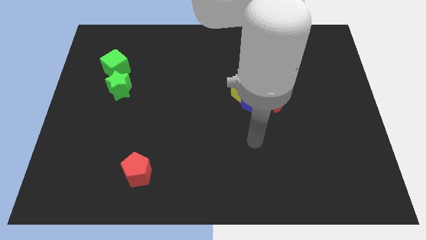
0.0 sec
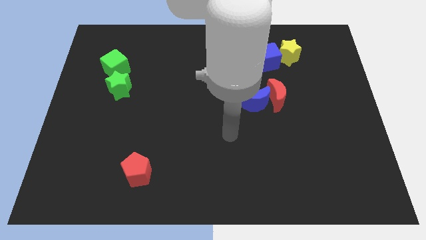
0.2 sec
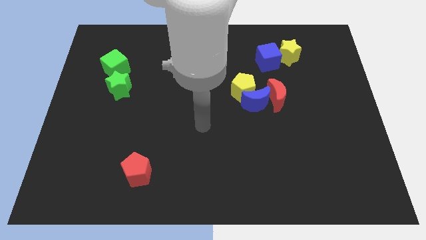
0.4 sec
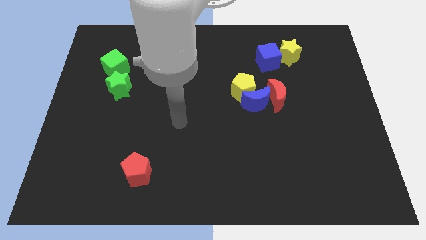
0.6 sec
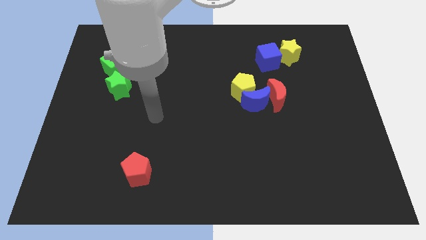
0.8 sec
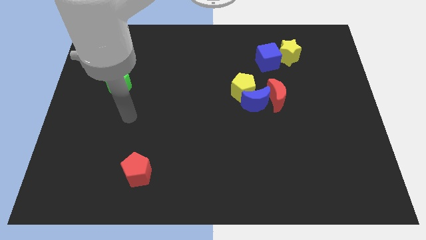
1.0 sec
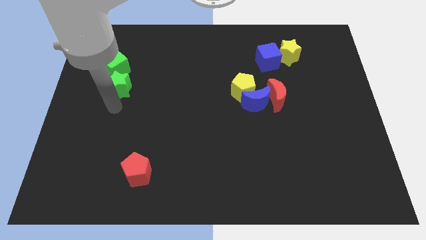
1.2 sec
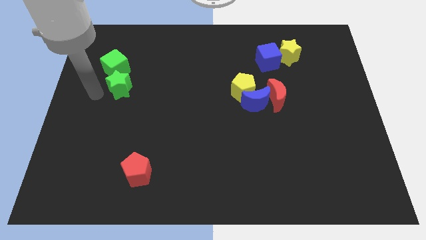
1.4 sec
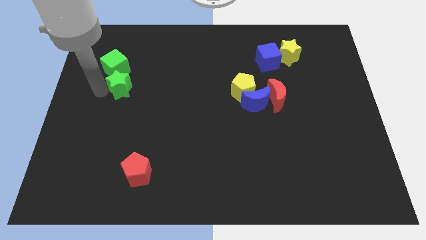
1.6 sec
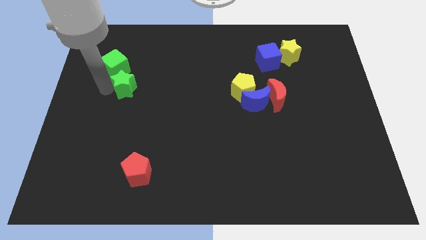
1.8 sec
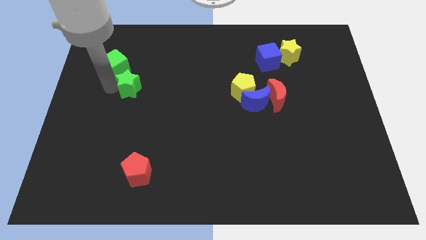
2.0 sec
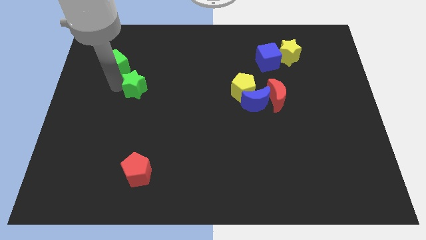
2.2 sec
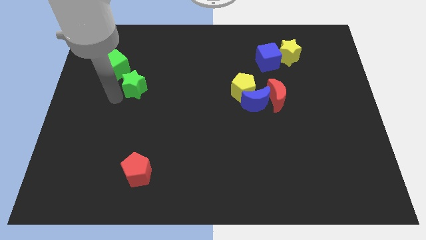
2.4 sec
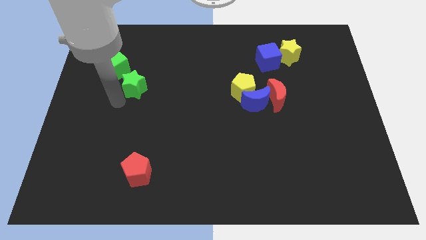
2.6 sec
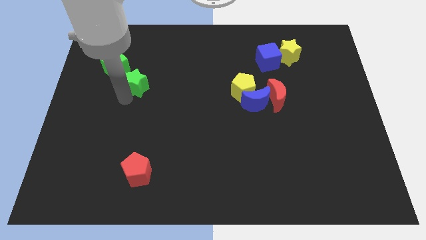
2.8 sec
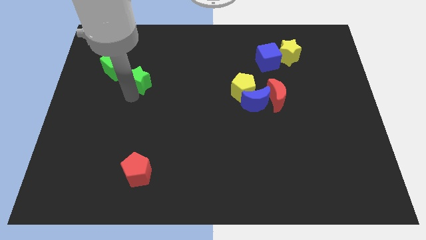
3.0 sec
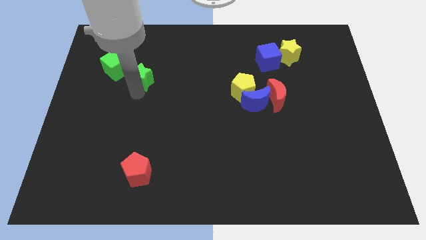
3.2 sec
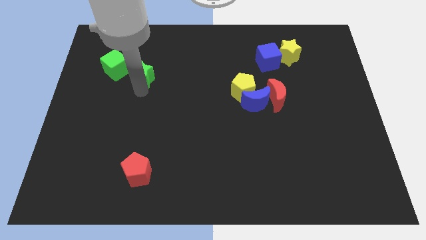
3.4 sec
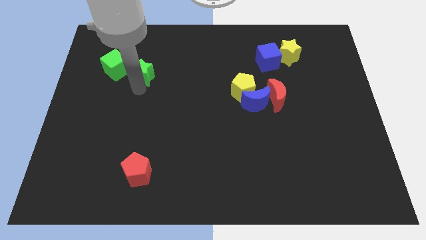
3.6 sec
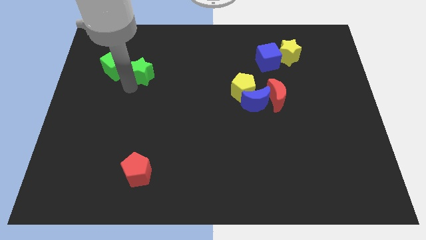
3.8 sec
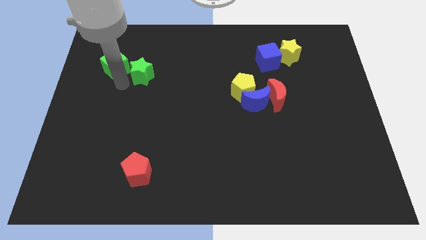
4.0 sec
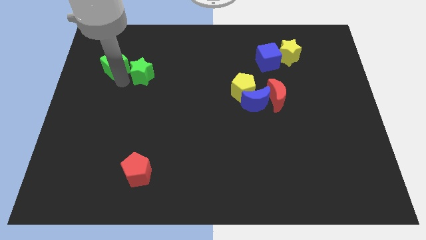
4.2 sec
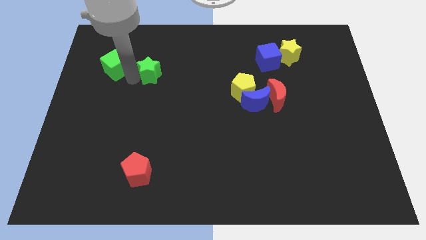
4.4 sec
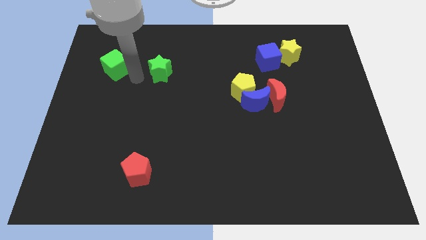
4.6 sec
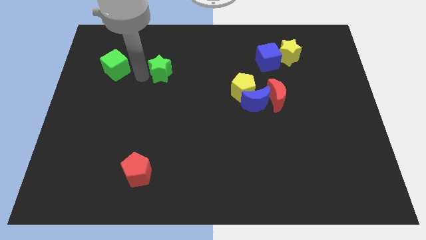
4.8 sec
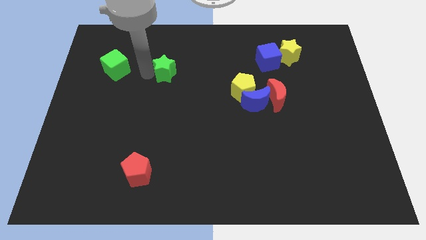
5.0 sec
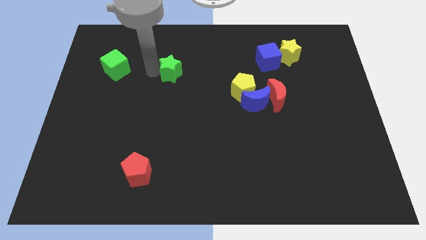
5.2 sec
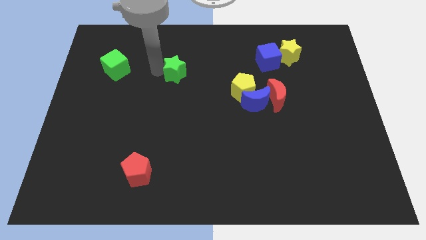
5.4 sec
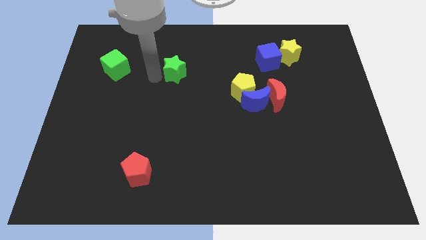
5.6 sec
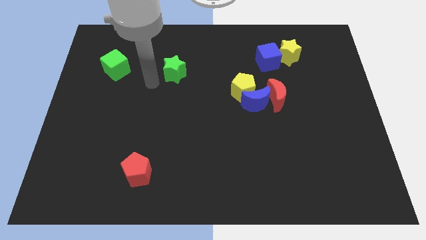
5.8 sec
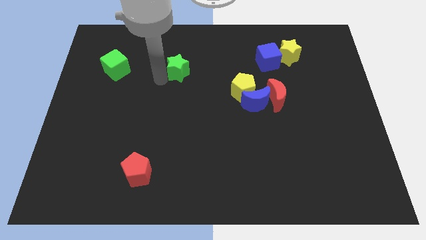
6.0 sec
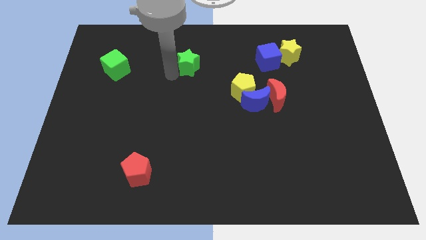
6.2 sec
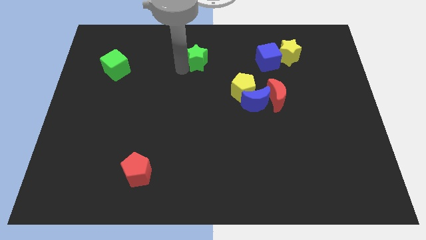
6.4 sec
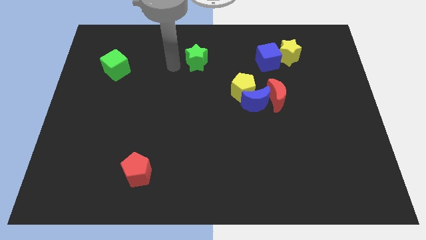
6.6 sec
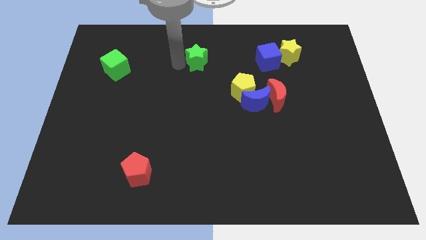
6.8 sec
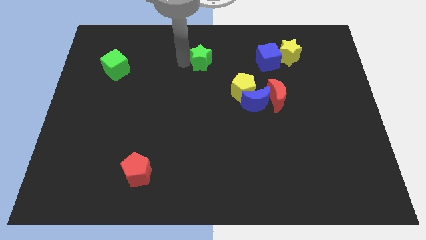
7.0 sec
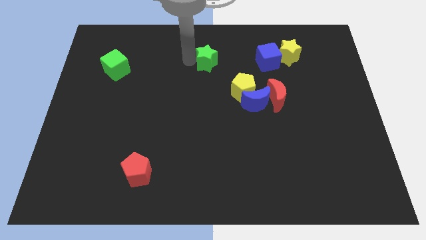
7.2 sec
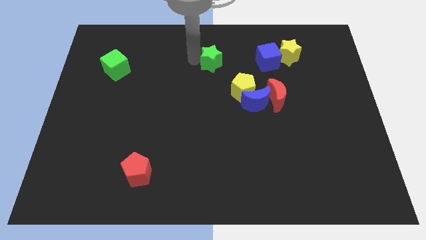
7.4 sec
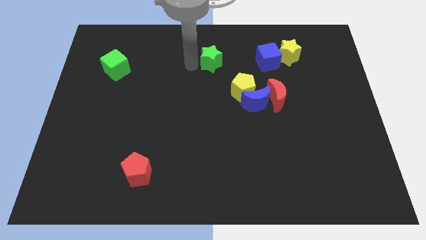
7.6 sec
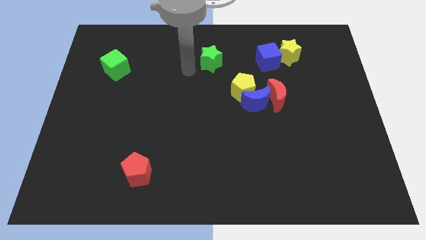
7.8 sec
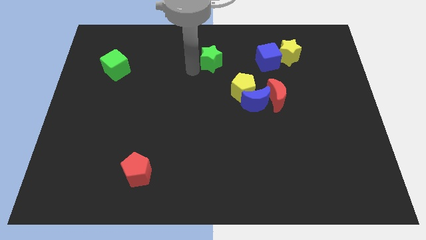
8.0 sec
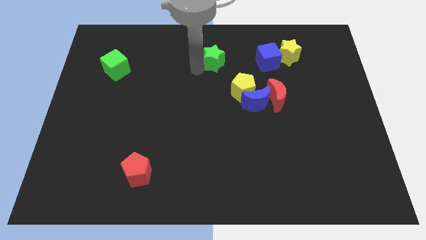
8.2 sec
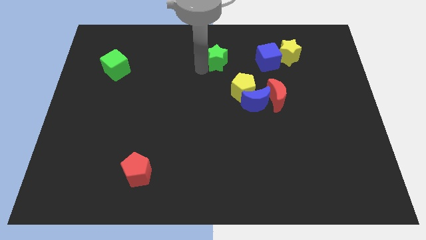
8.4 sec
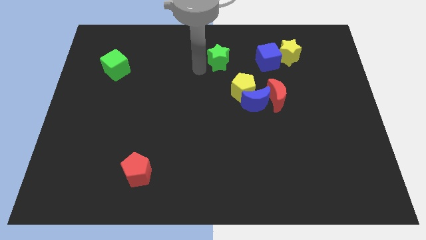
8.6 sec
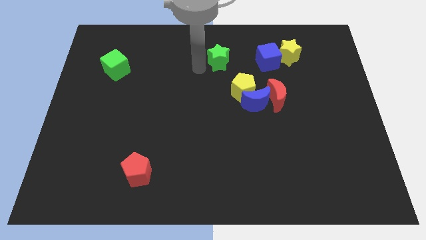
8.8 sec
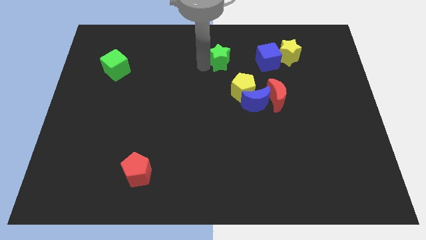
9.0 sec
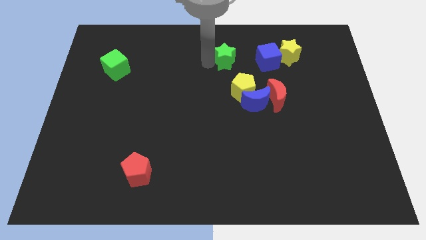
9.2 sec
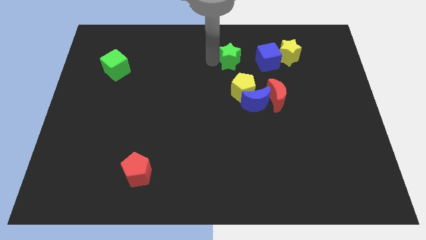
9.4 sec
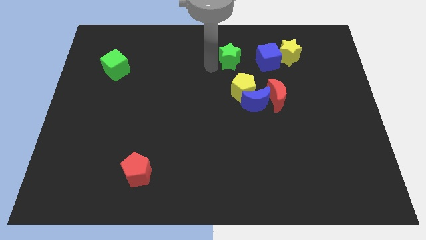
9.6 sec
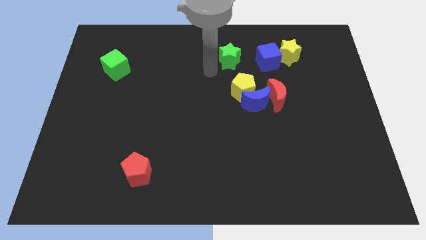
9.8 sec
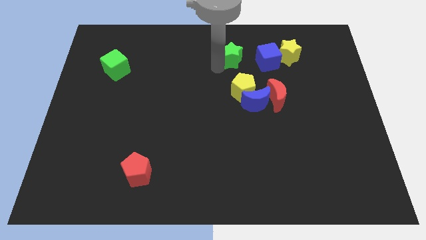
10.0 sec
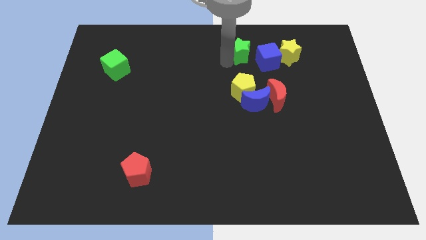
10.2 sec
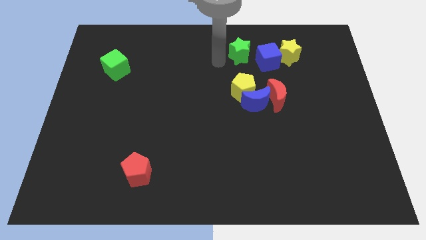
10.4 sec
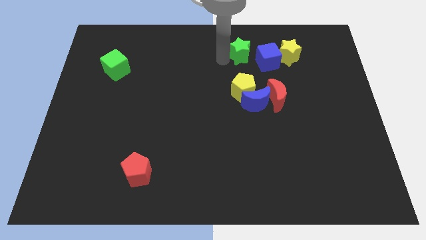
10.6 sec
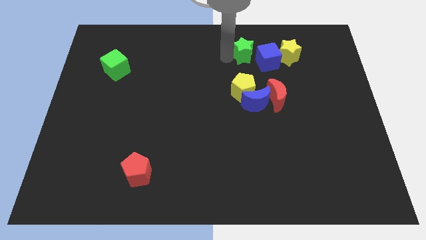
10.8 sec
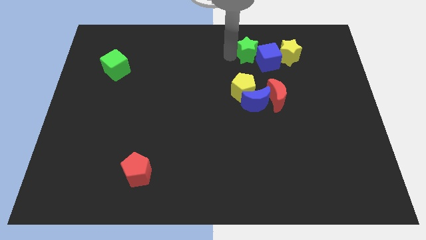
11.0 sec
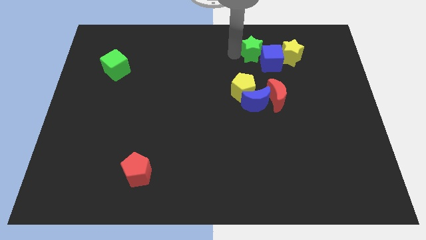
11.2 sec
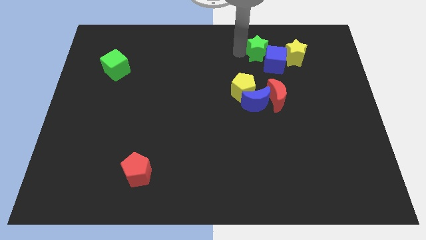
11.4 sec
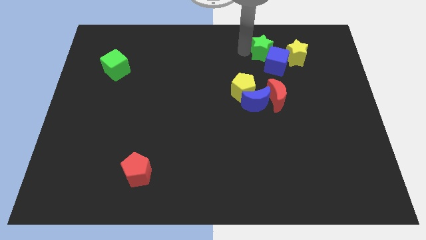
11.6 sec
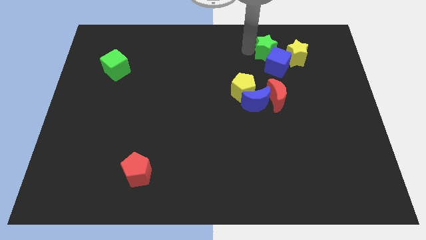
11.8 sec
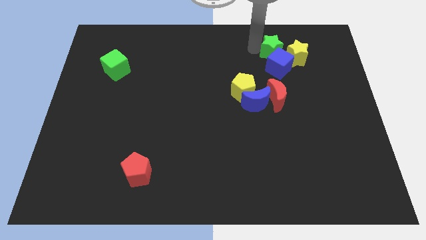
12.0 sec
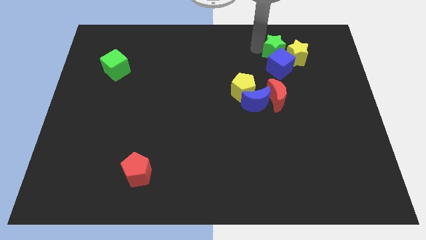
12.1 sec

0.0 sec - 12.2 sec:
move the green star next to the yellow star

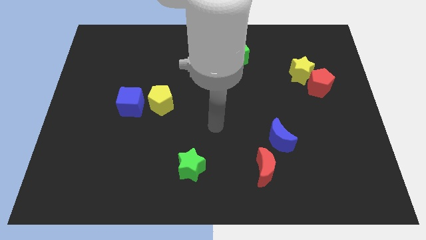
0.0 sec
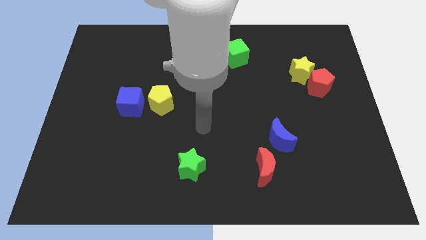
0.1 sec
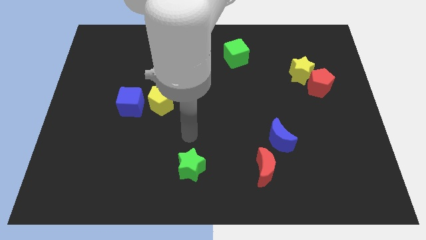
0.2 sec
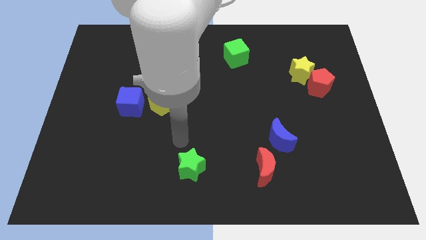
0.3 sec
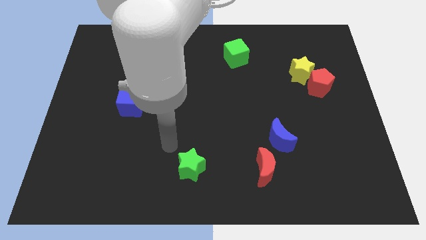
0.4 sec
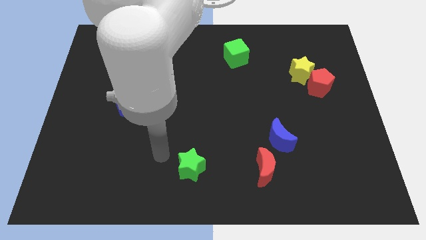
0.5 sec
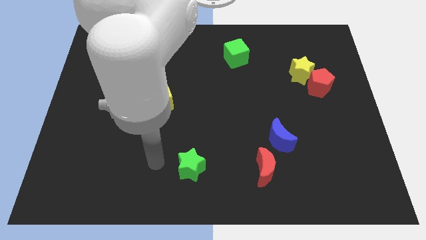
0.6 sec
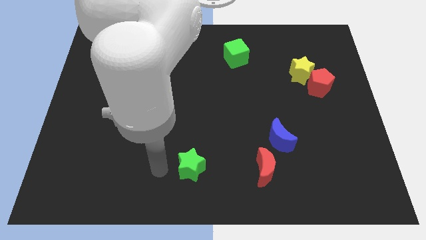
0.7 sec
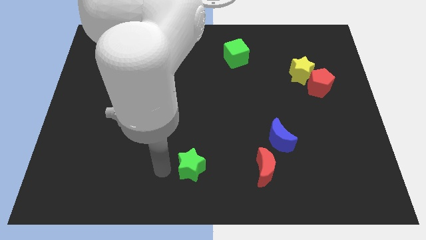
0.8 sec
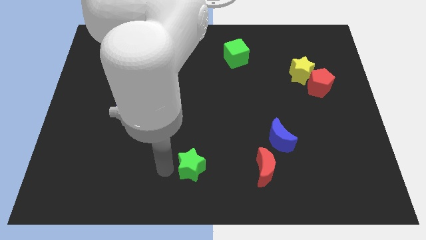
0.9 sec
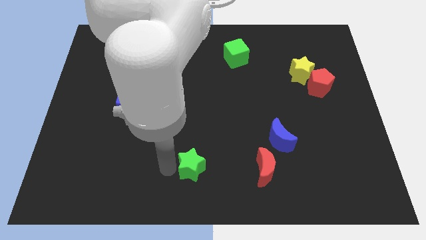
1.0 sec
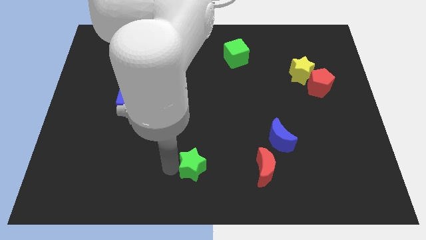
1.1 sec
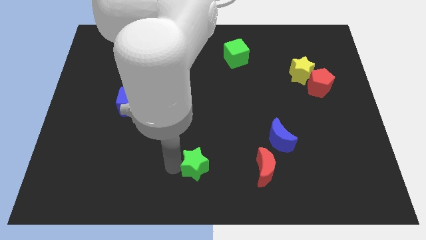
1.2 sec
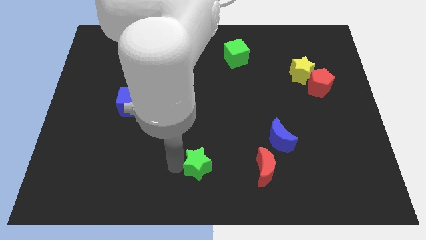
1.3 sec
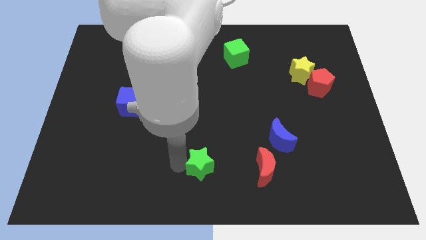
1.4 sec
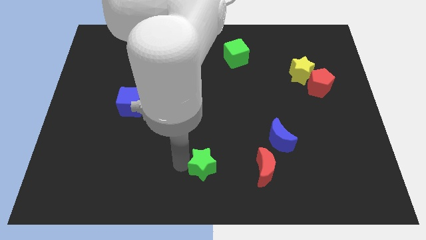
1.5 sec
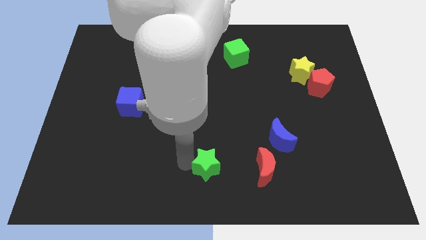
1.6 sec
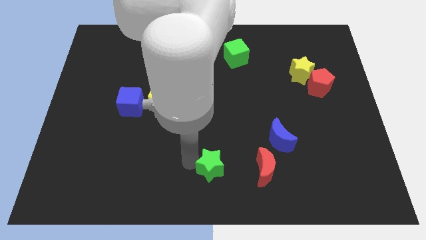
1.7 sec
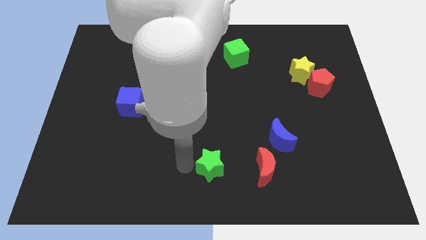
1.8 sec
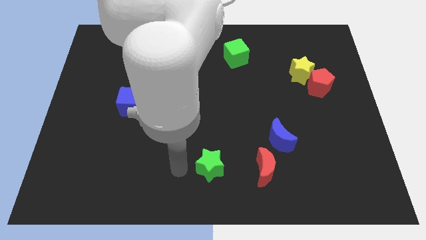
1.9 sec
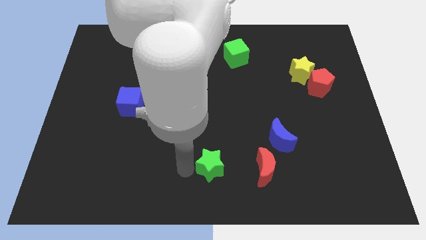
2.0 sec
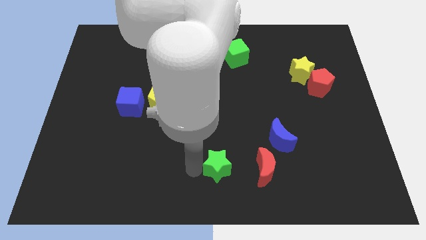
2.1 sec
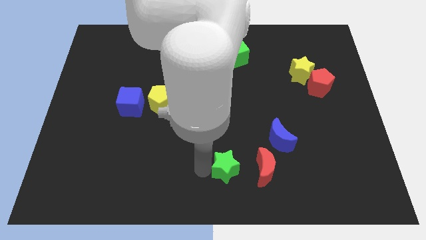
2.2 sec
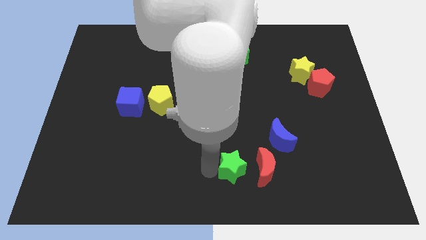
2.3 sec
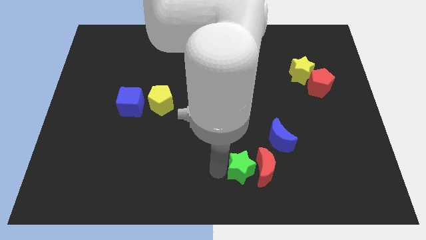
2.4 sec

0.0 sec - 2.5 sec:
push the green star close to the red moon
